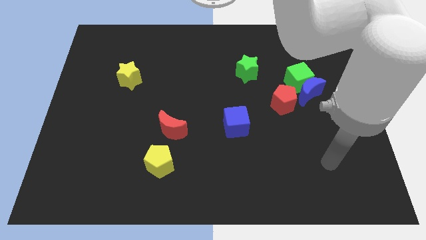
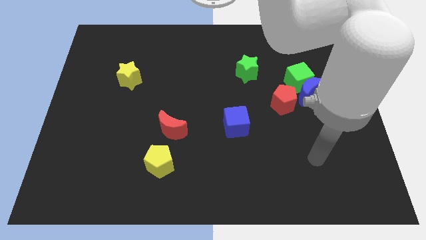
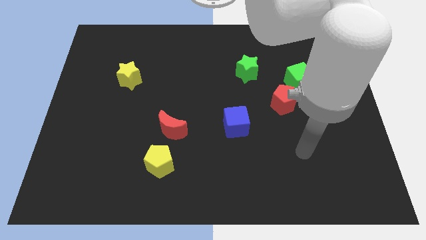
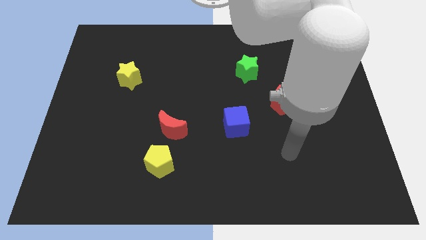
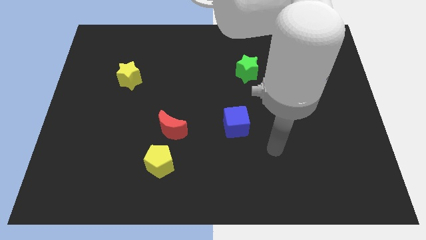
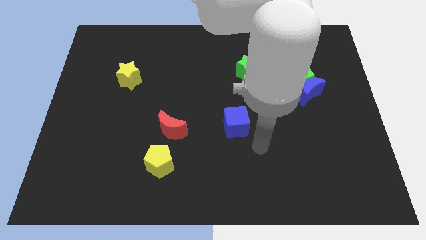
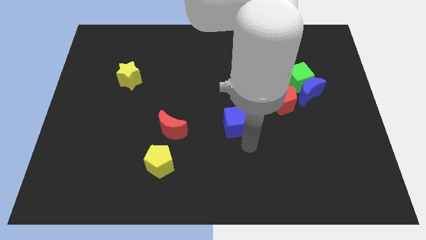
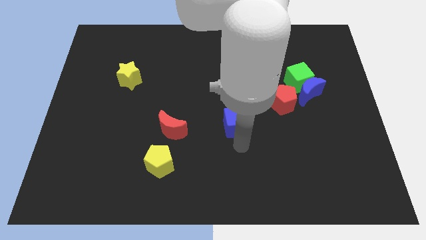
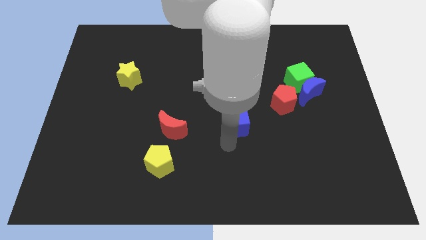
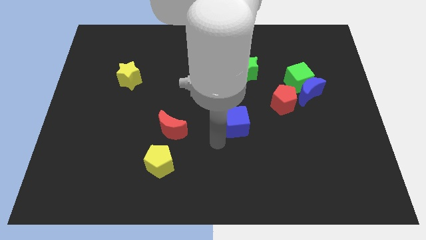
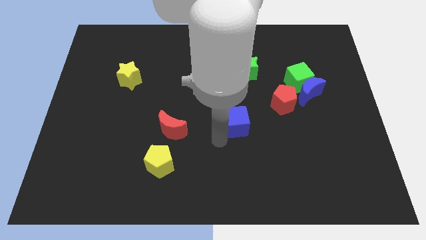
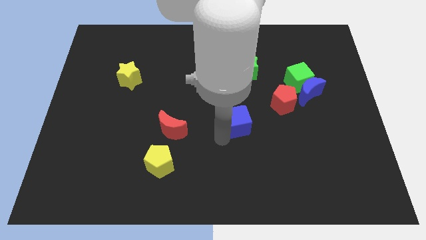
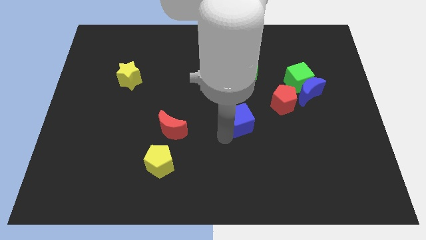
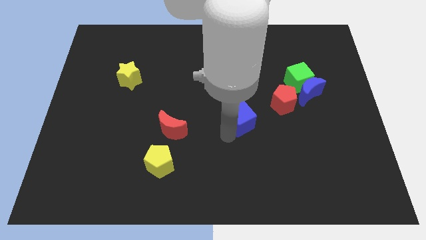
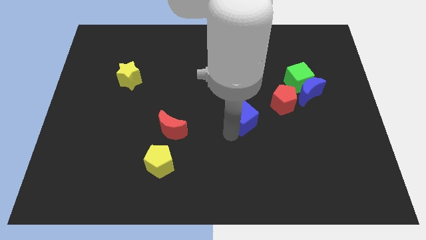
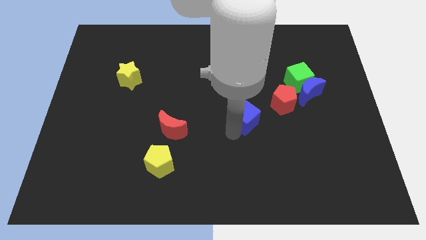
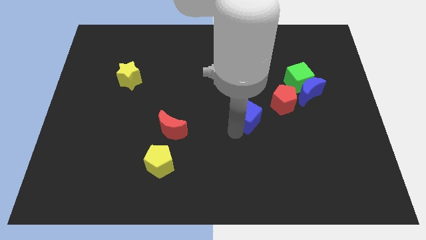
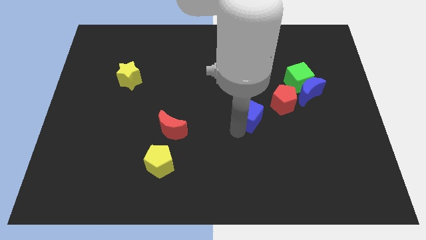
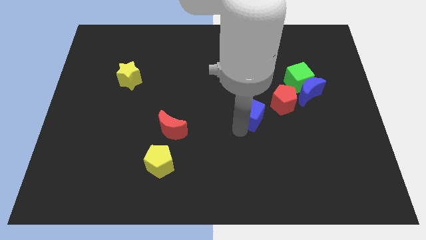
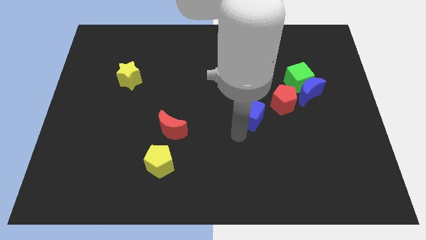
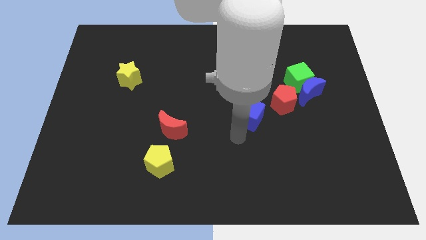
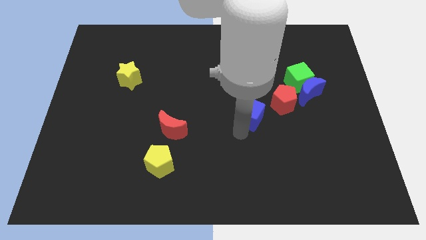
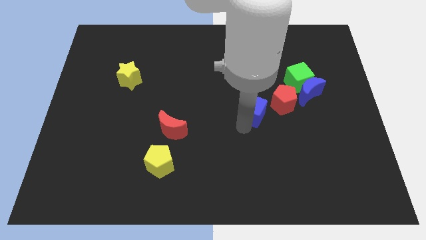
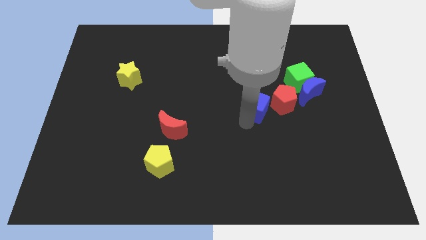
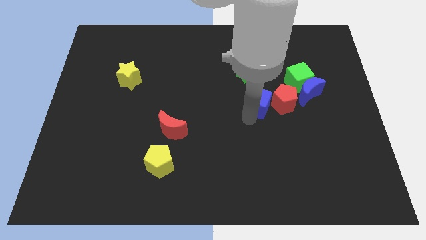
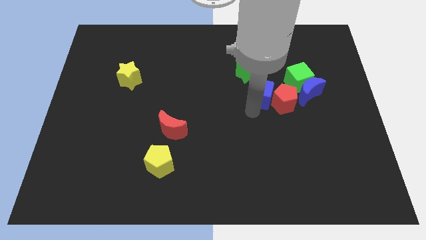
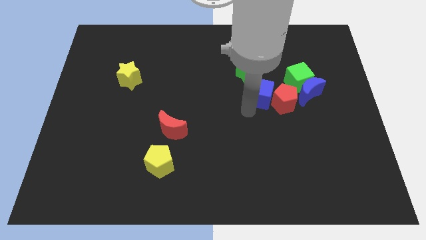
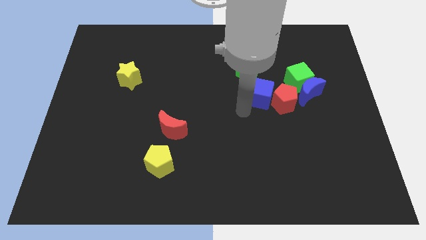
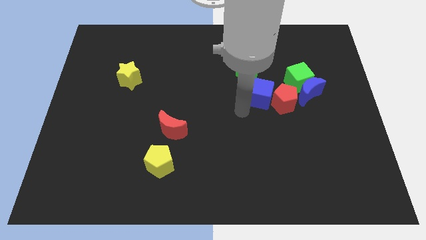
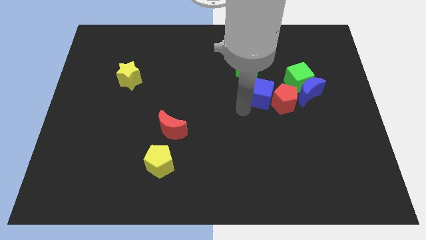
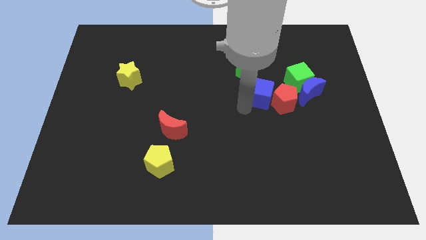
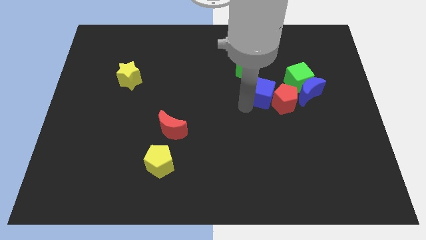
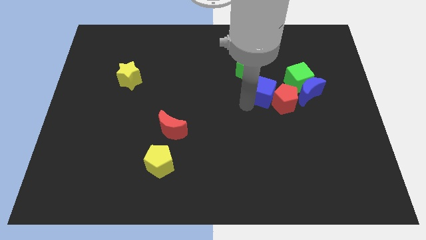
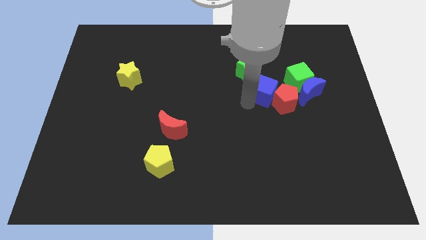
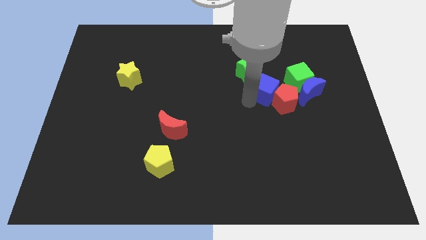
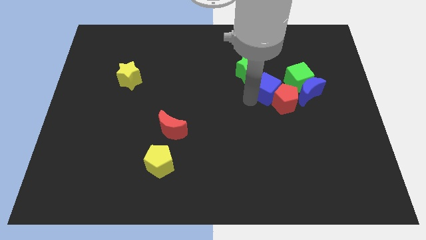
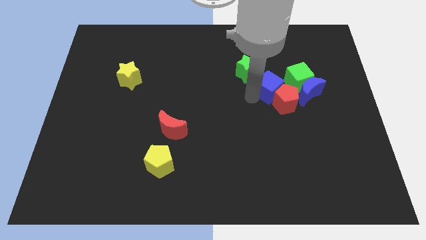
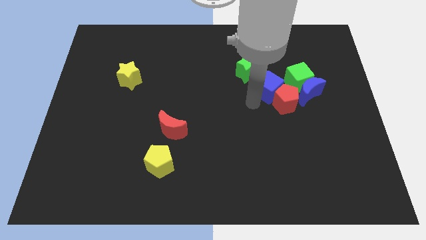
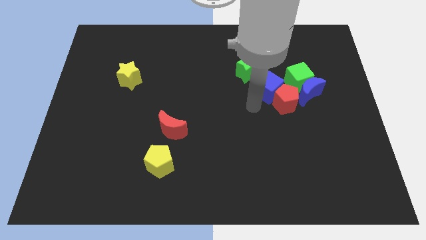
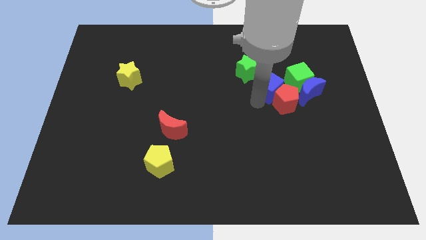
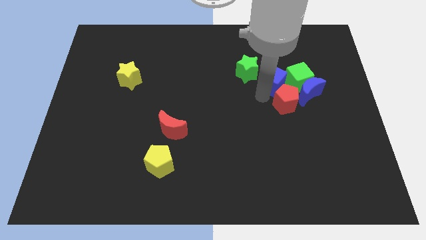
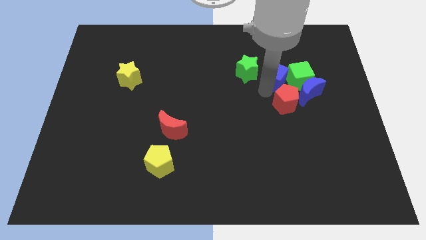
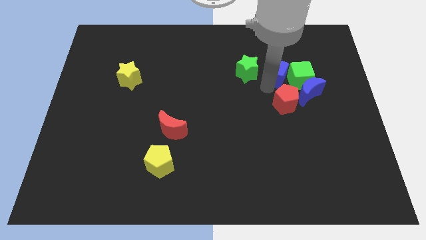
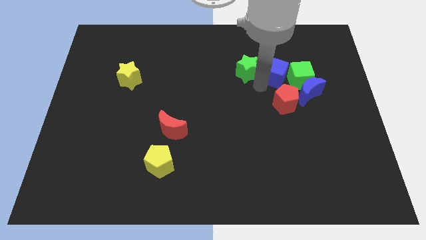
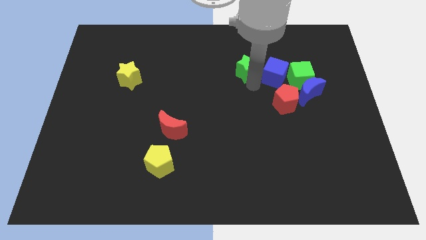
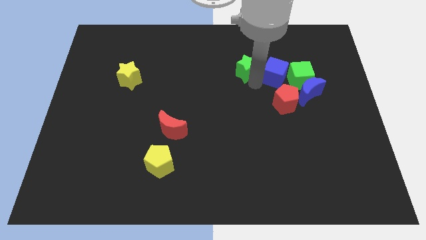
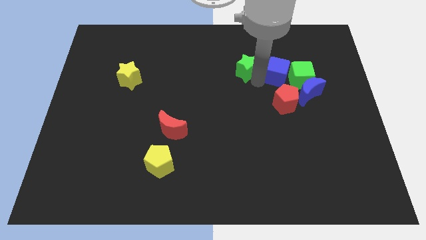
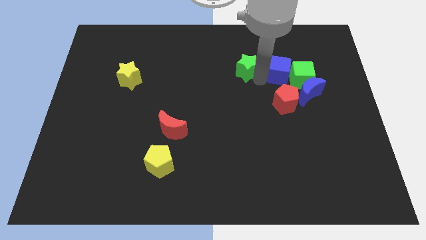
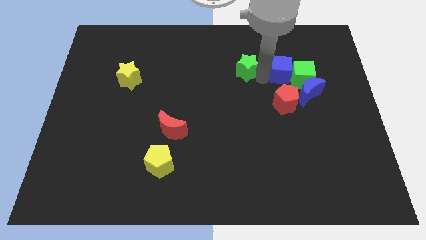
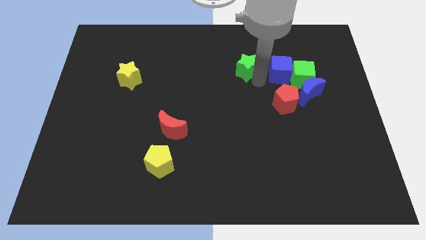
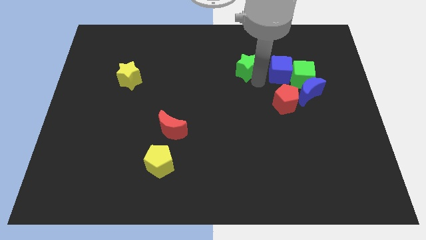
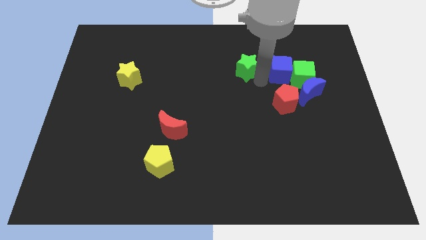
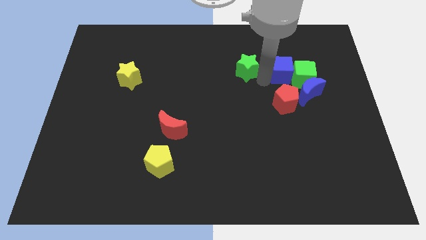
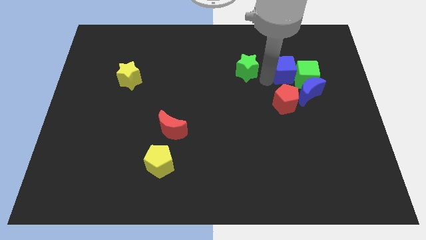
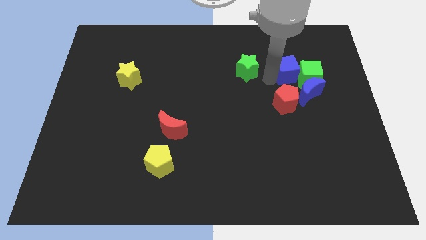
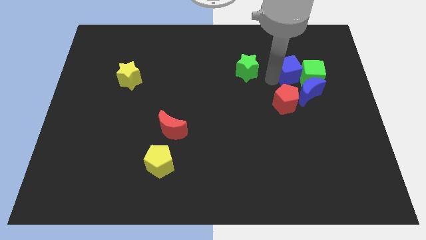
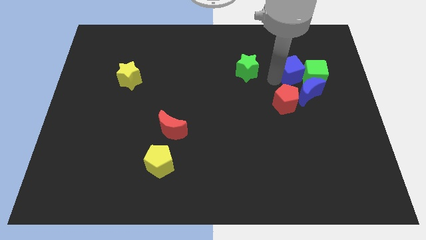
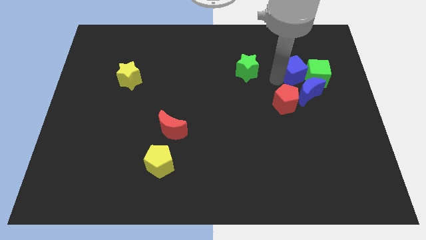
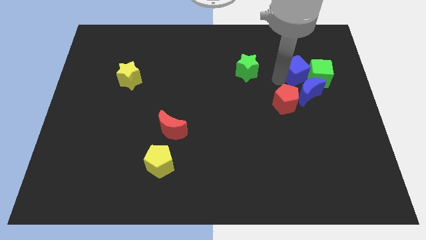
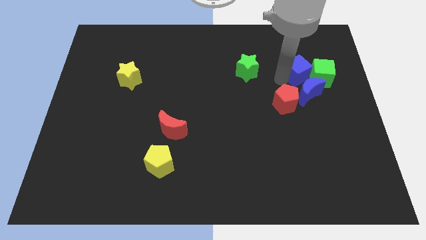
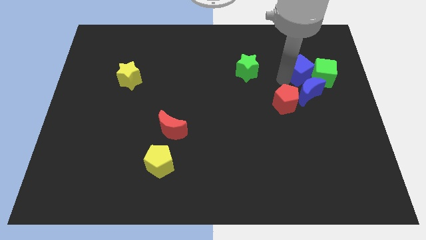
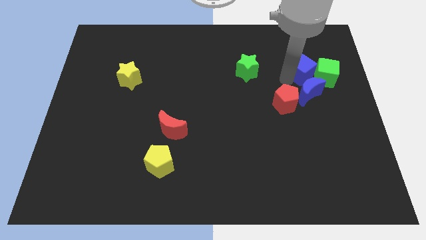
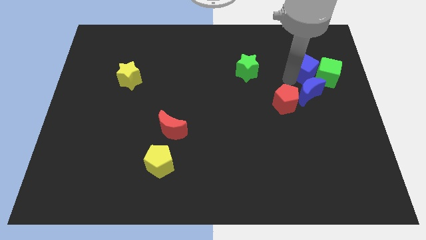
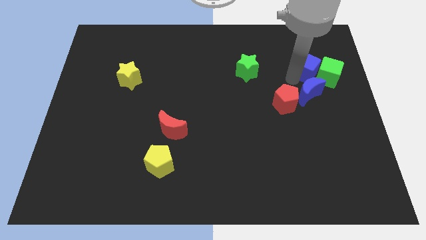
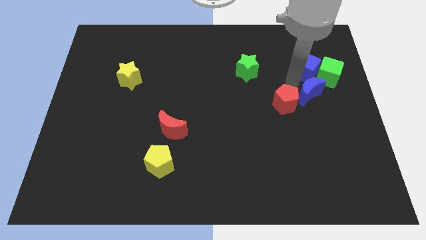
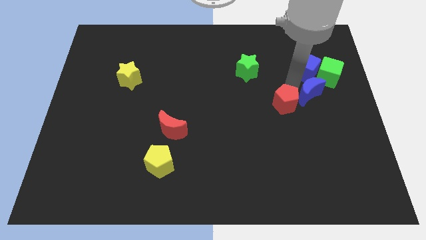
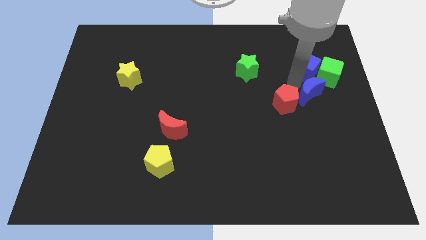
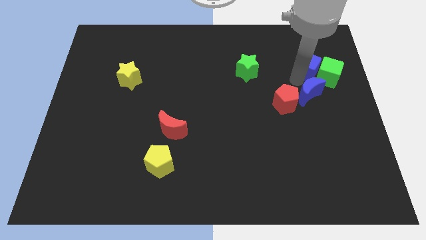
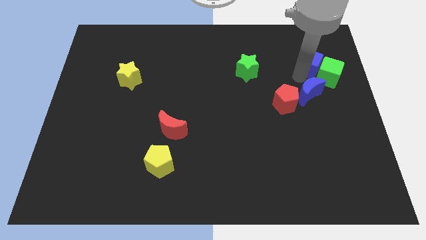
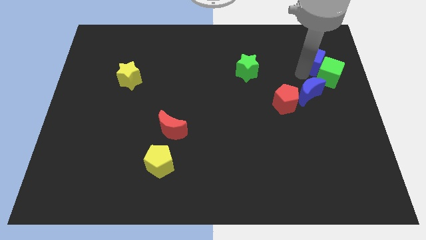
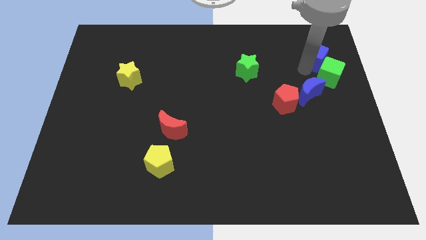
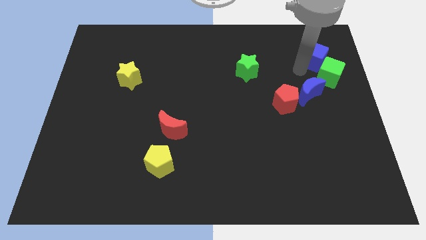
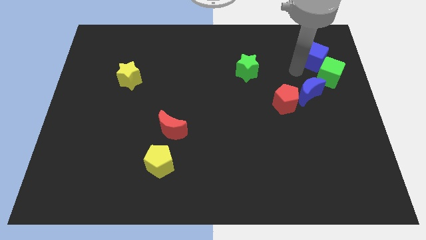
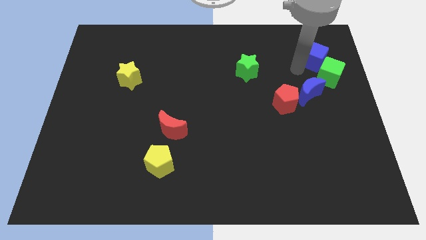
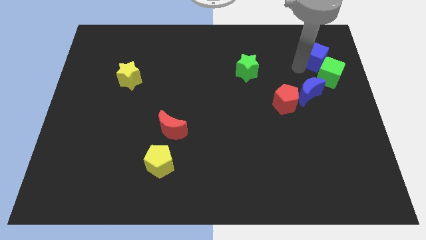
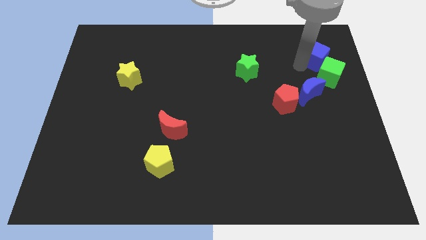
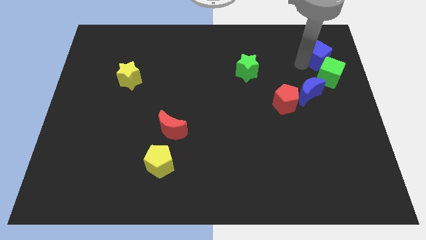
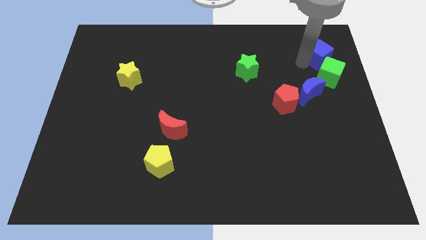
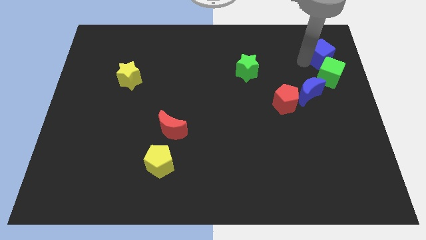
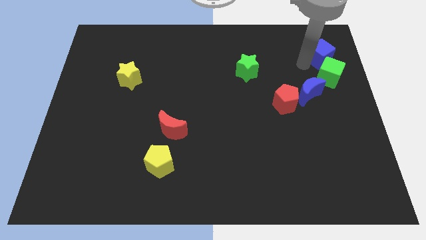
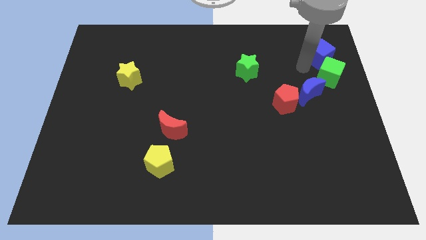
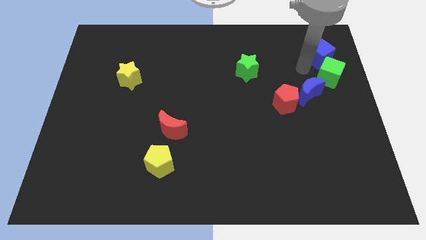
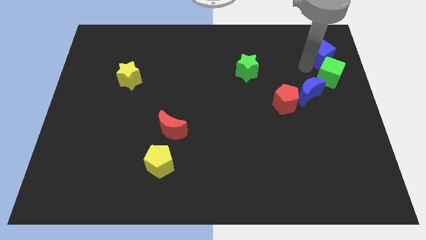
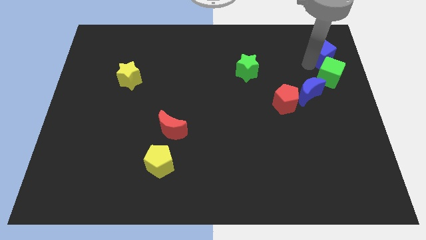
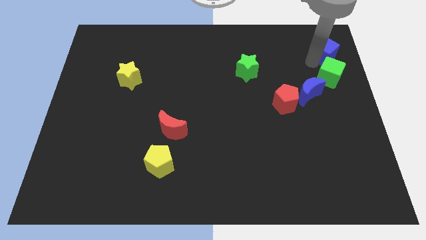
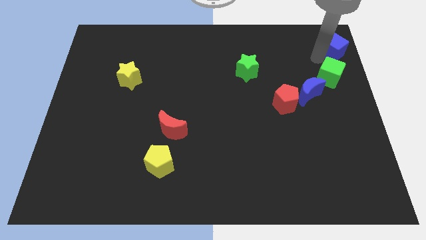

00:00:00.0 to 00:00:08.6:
push the blue cube to the top right of the board
